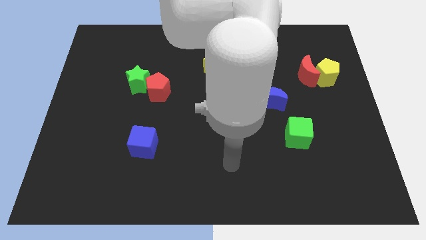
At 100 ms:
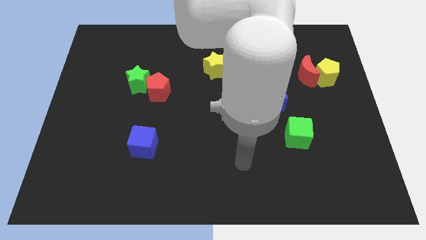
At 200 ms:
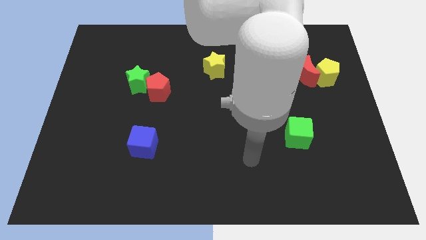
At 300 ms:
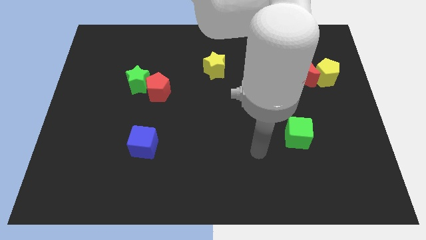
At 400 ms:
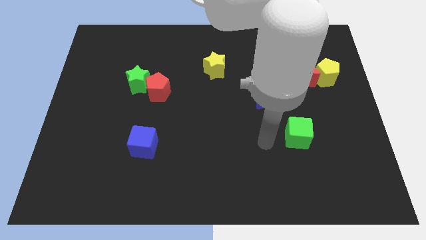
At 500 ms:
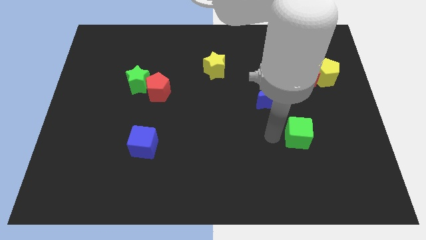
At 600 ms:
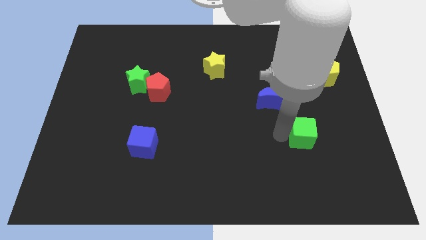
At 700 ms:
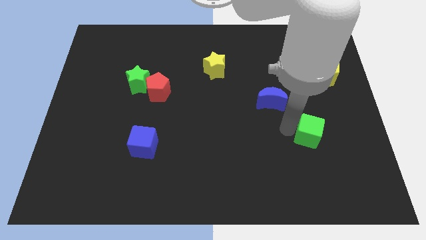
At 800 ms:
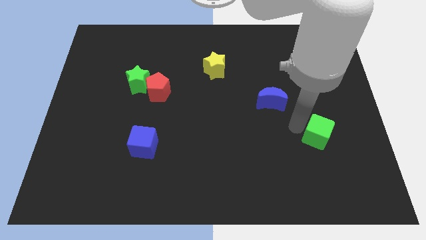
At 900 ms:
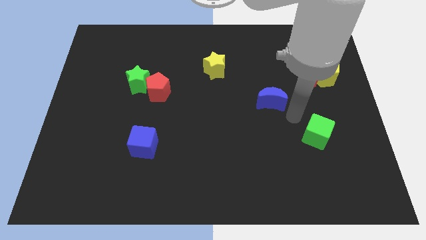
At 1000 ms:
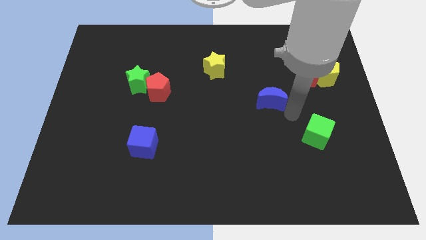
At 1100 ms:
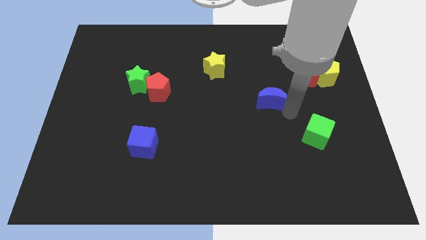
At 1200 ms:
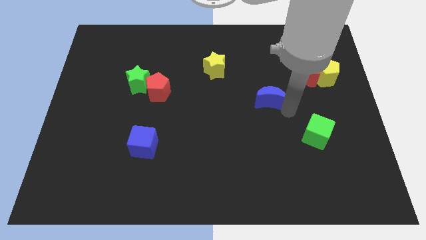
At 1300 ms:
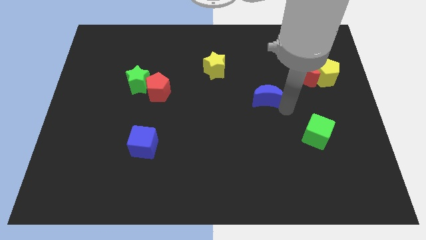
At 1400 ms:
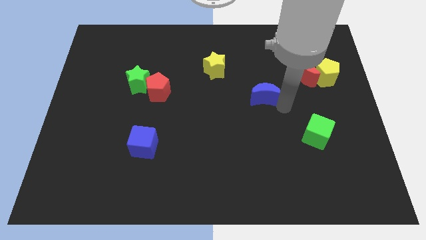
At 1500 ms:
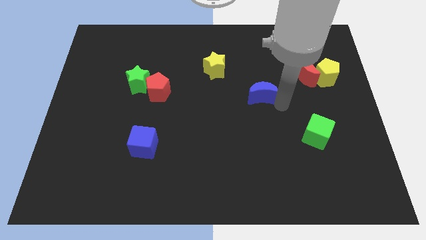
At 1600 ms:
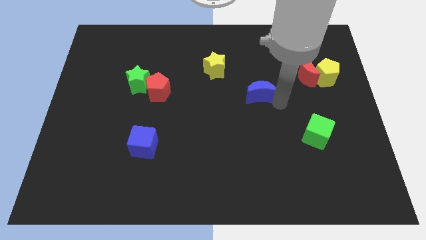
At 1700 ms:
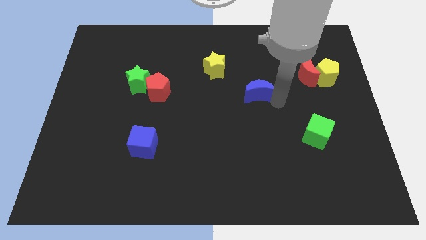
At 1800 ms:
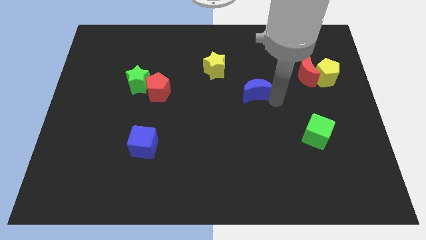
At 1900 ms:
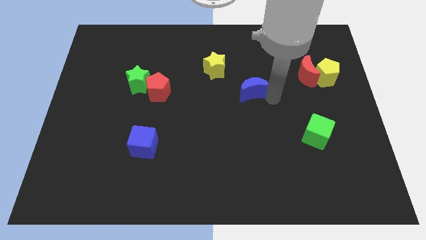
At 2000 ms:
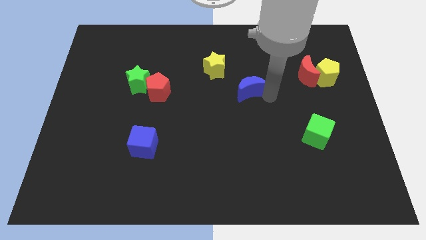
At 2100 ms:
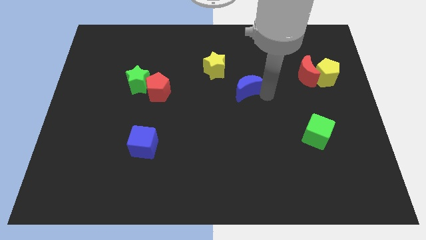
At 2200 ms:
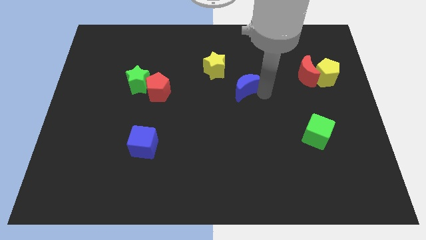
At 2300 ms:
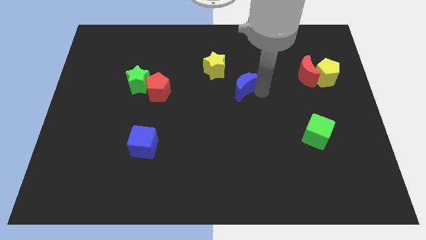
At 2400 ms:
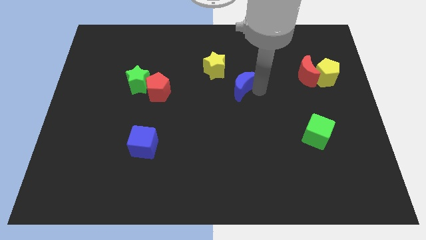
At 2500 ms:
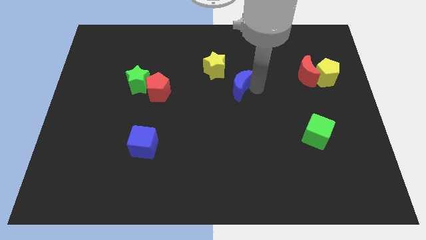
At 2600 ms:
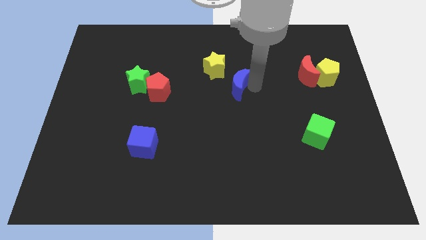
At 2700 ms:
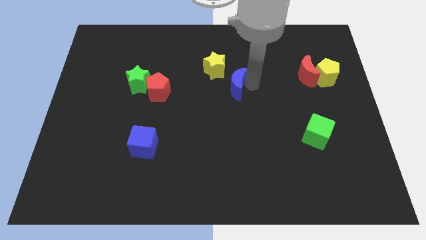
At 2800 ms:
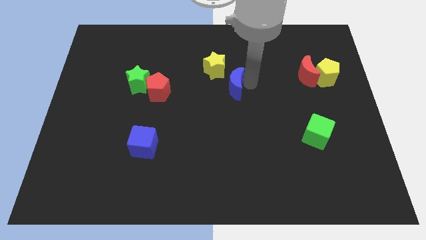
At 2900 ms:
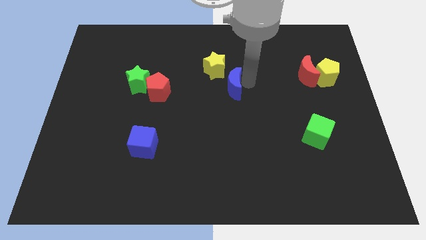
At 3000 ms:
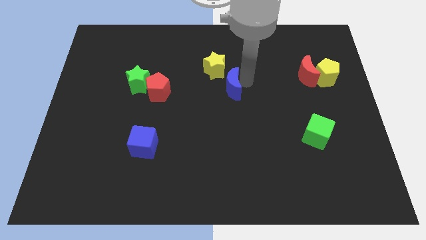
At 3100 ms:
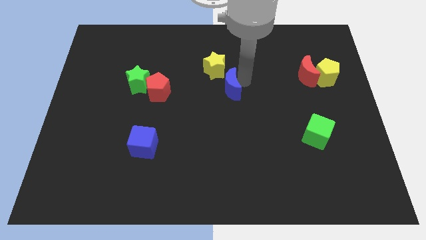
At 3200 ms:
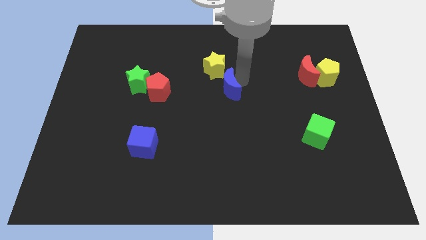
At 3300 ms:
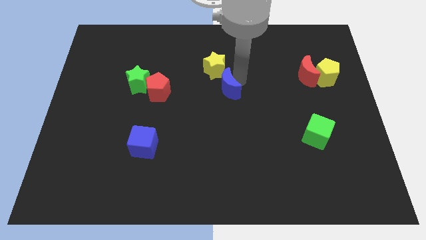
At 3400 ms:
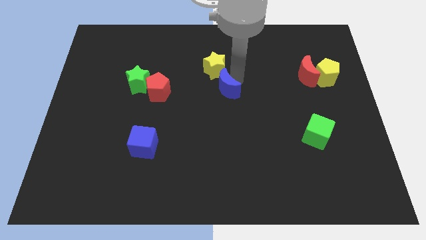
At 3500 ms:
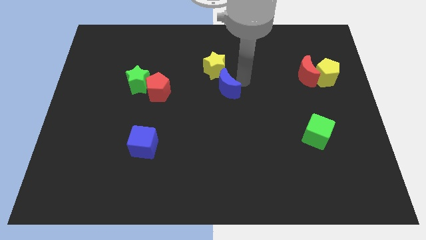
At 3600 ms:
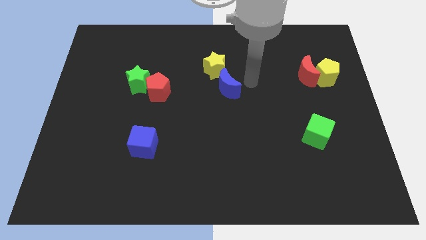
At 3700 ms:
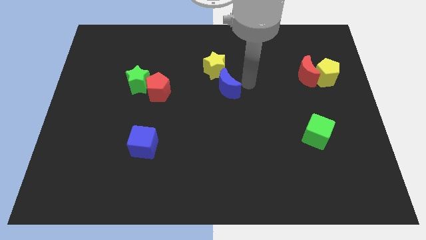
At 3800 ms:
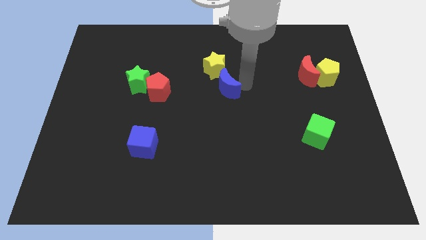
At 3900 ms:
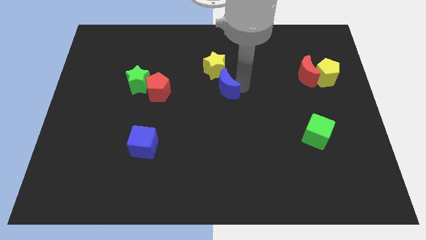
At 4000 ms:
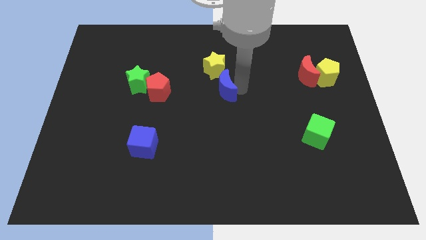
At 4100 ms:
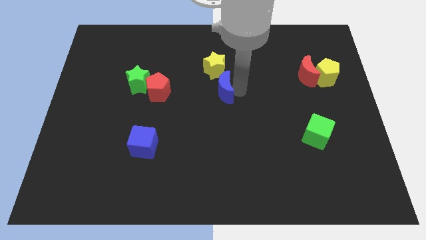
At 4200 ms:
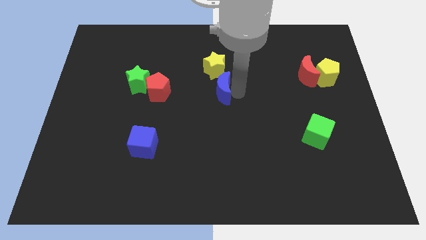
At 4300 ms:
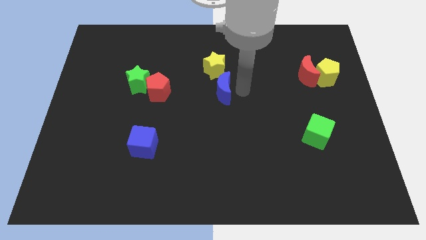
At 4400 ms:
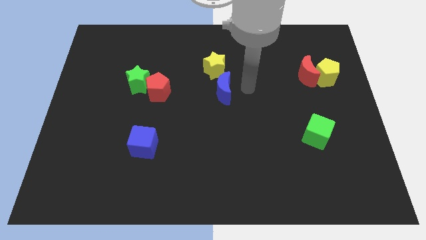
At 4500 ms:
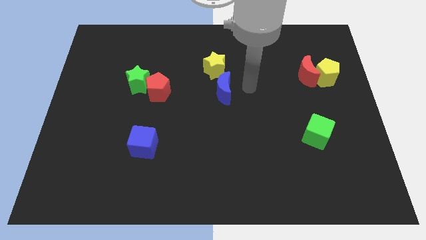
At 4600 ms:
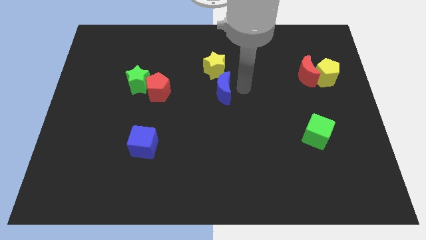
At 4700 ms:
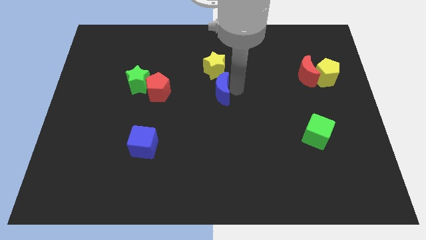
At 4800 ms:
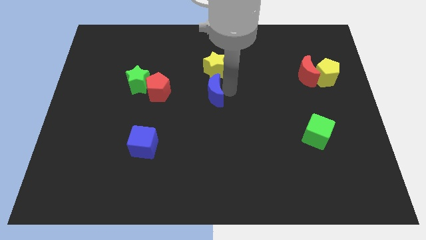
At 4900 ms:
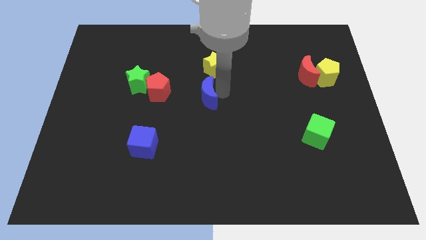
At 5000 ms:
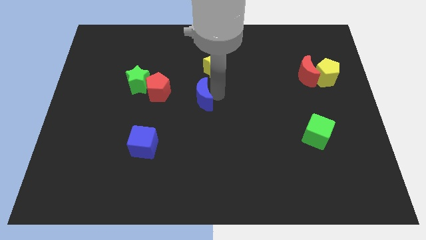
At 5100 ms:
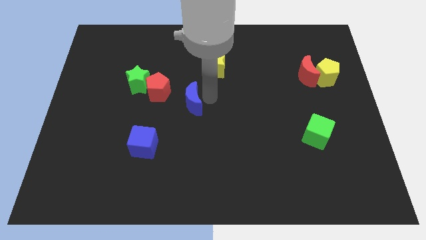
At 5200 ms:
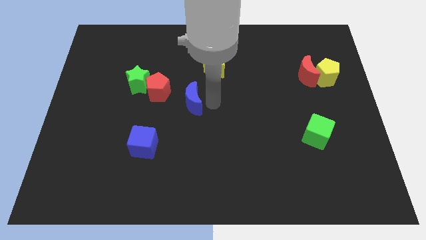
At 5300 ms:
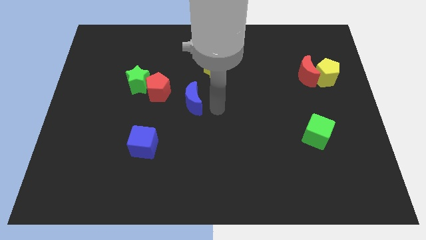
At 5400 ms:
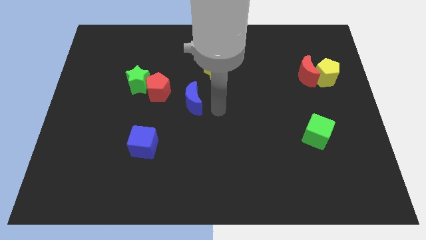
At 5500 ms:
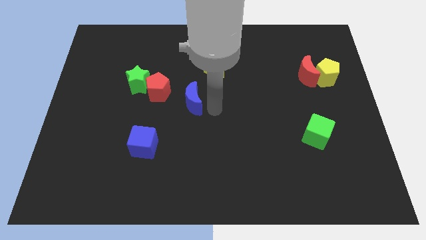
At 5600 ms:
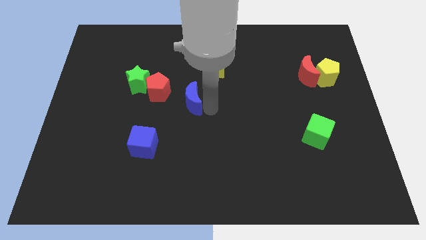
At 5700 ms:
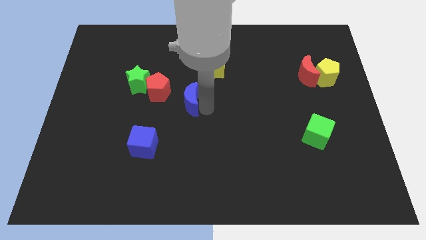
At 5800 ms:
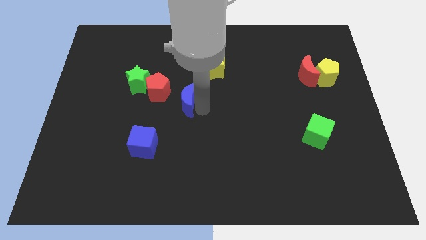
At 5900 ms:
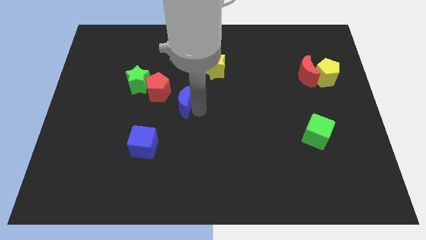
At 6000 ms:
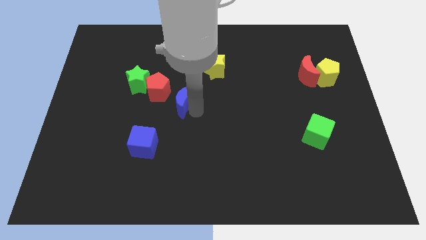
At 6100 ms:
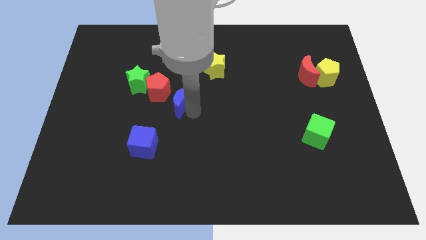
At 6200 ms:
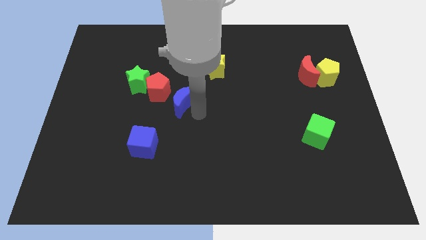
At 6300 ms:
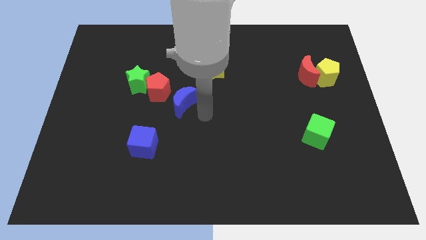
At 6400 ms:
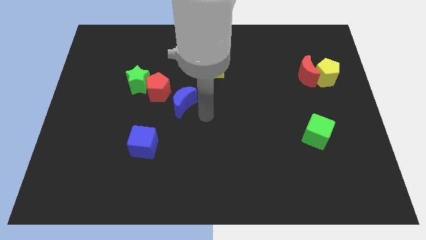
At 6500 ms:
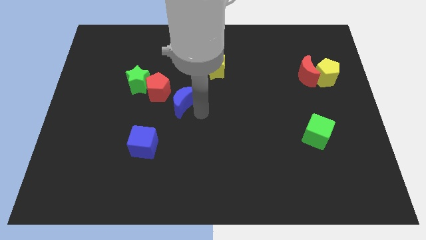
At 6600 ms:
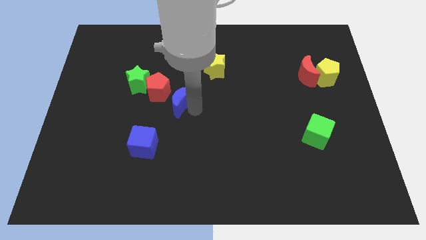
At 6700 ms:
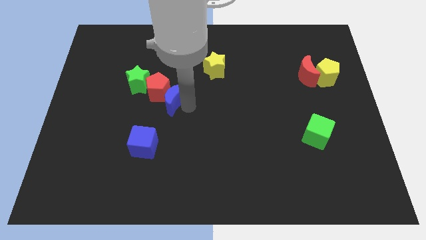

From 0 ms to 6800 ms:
move the blue moon next to the red pentagon
